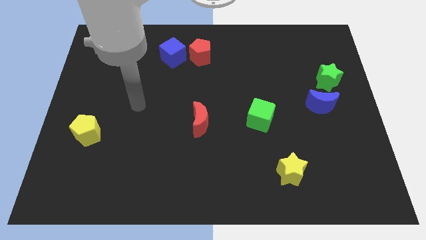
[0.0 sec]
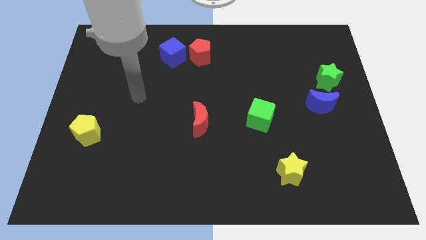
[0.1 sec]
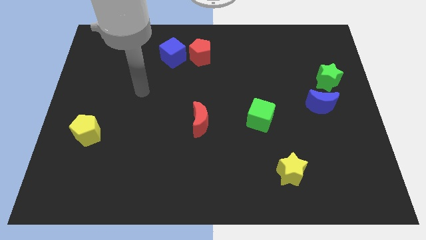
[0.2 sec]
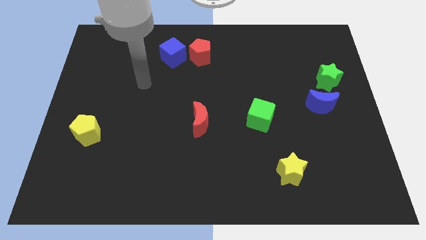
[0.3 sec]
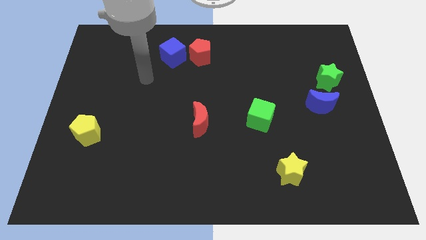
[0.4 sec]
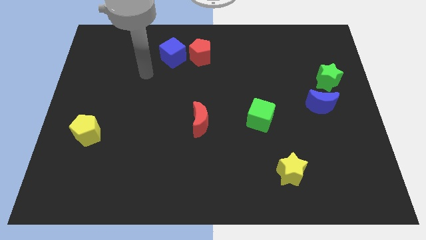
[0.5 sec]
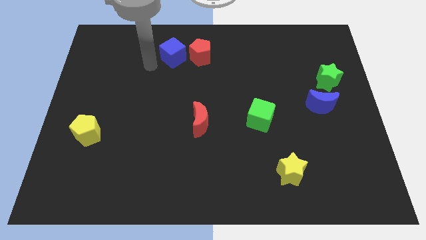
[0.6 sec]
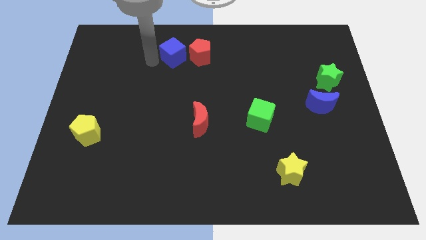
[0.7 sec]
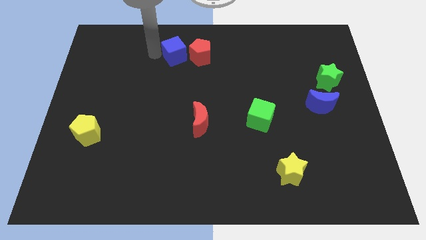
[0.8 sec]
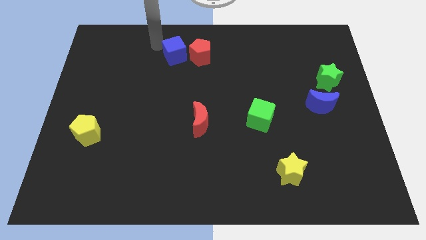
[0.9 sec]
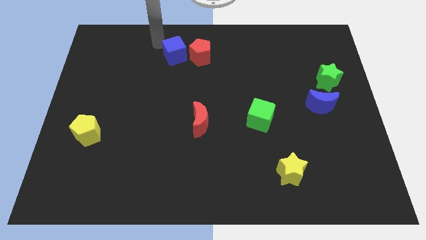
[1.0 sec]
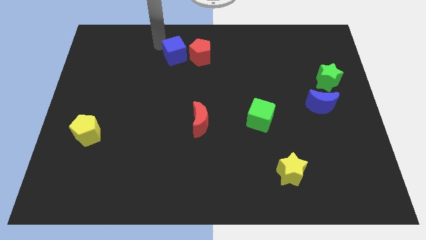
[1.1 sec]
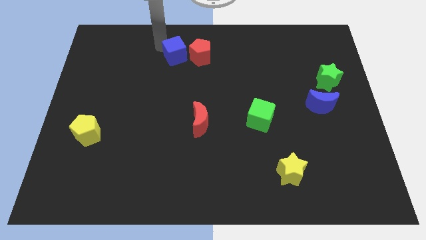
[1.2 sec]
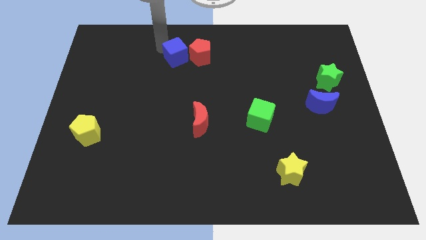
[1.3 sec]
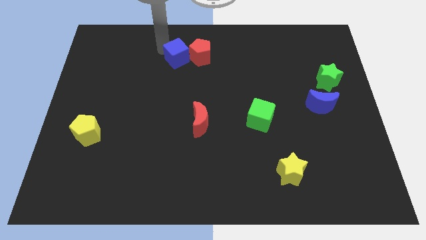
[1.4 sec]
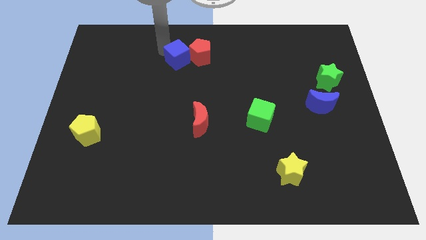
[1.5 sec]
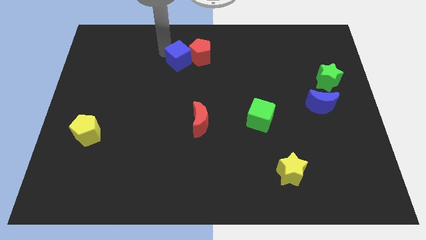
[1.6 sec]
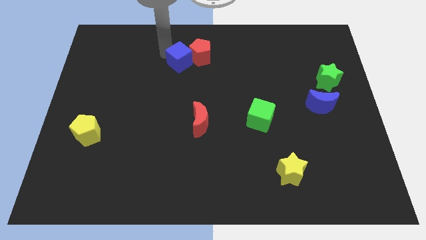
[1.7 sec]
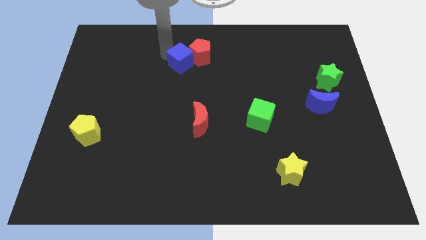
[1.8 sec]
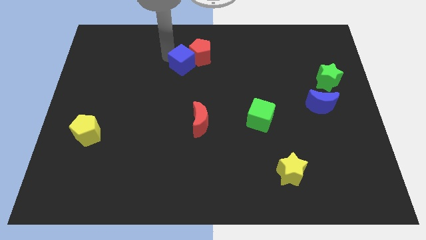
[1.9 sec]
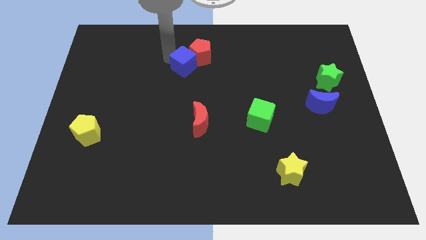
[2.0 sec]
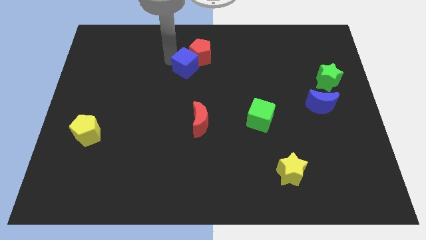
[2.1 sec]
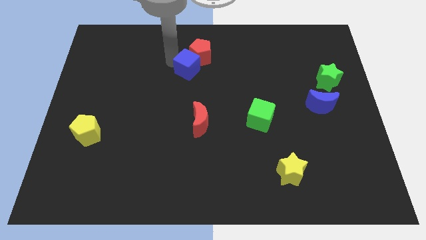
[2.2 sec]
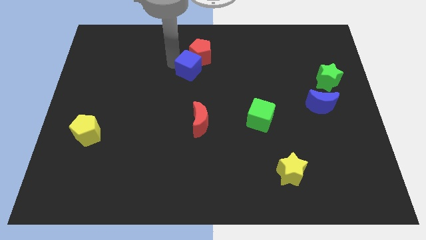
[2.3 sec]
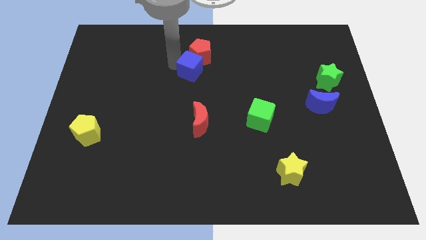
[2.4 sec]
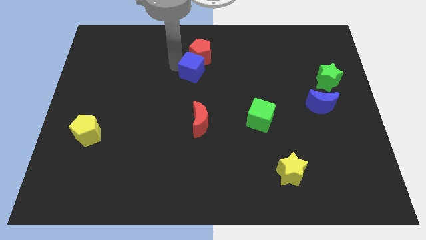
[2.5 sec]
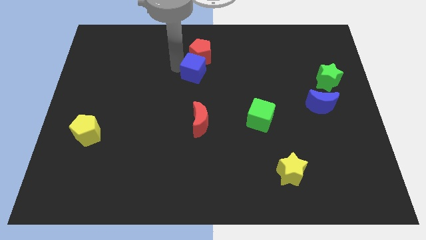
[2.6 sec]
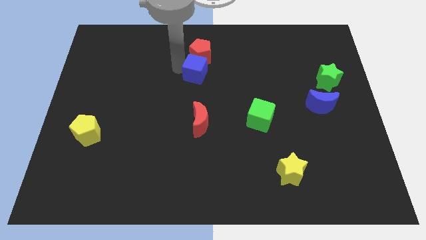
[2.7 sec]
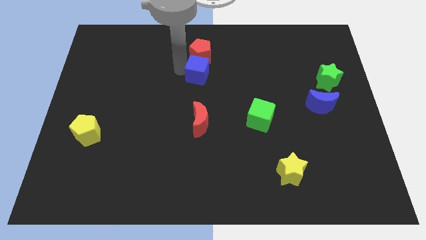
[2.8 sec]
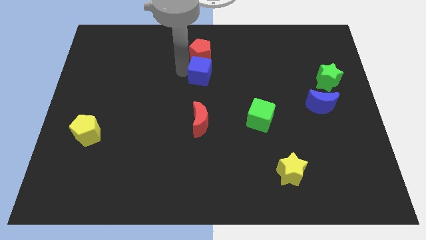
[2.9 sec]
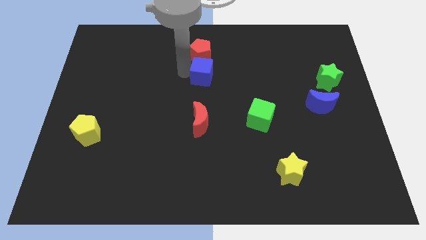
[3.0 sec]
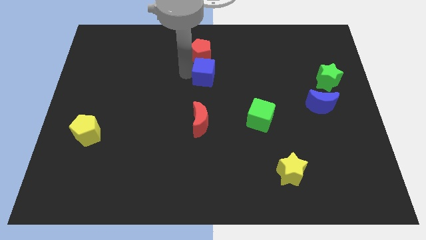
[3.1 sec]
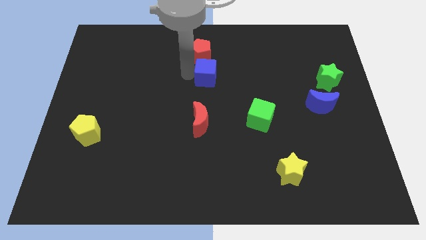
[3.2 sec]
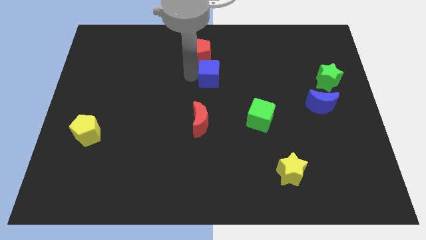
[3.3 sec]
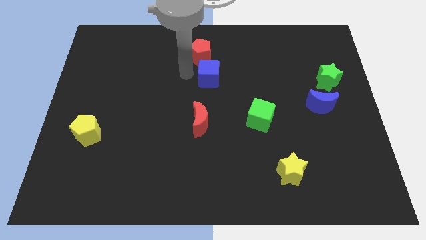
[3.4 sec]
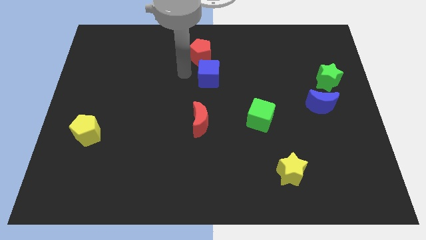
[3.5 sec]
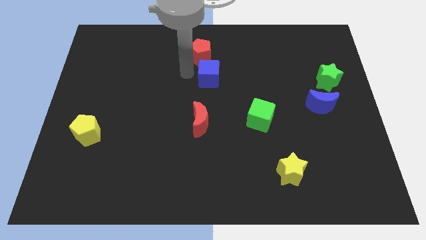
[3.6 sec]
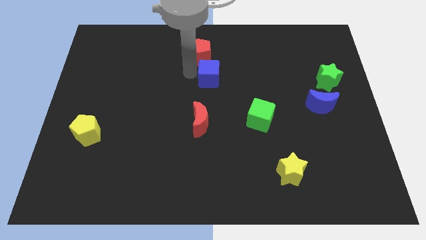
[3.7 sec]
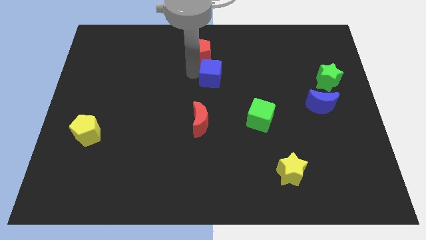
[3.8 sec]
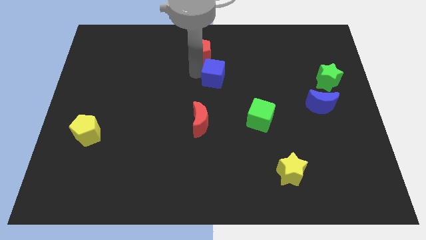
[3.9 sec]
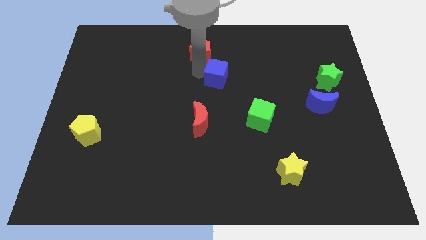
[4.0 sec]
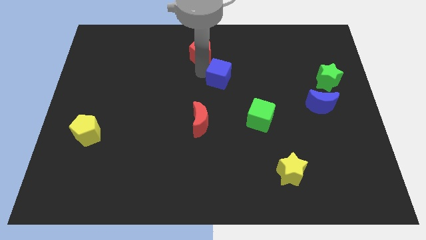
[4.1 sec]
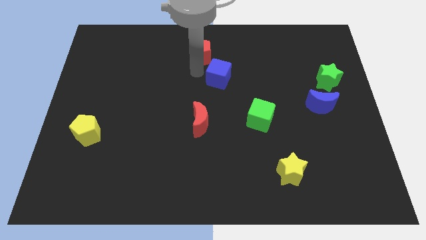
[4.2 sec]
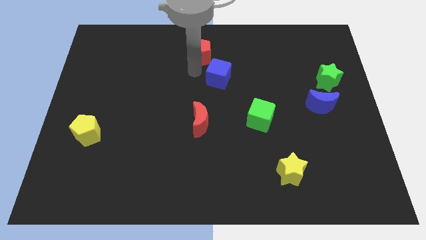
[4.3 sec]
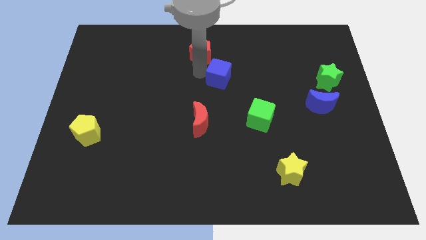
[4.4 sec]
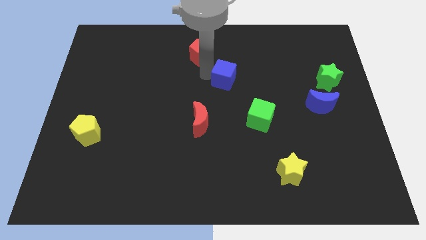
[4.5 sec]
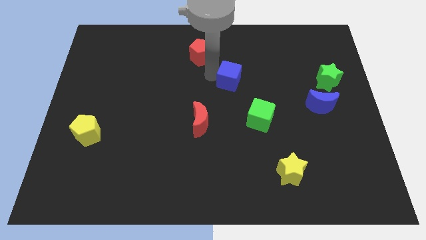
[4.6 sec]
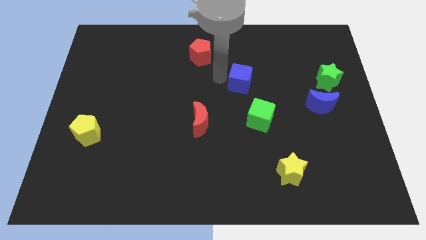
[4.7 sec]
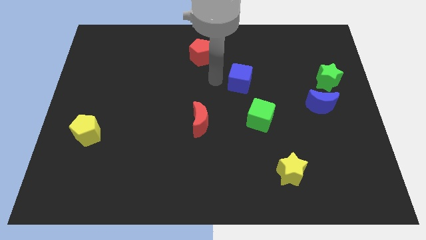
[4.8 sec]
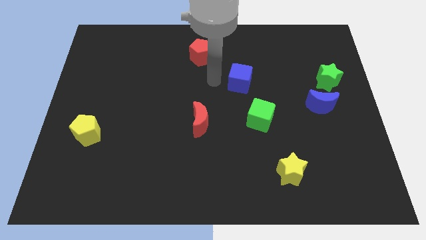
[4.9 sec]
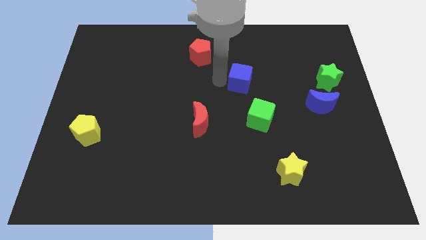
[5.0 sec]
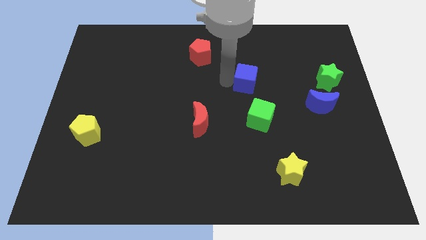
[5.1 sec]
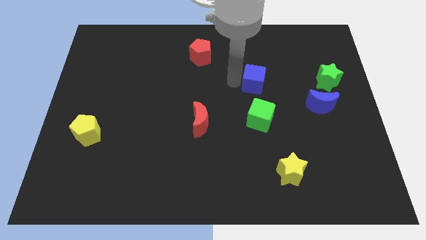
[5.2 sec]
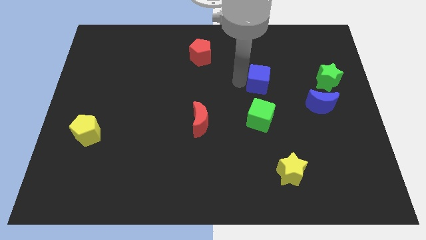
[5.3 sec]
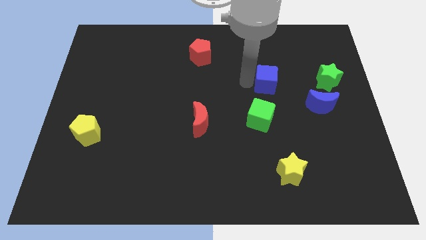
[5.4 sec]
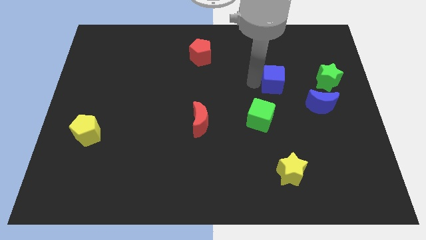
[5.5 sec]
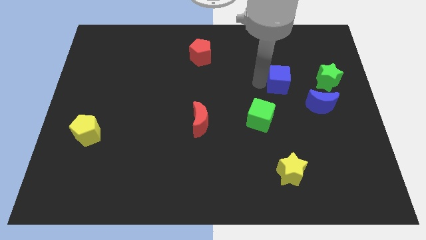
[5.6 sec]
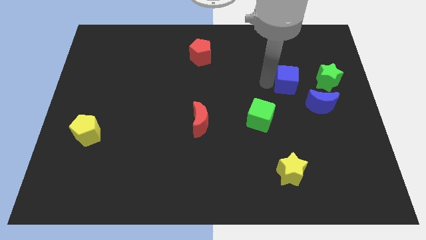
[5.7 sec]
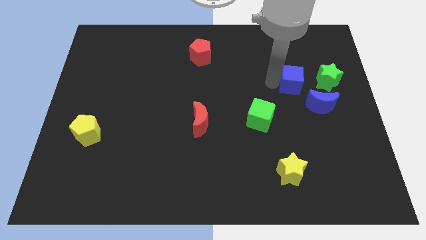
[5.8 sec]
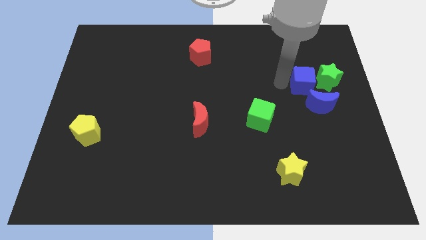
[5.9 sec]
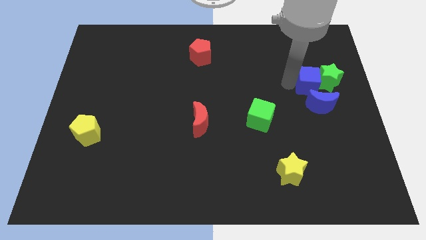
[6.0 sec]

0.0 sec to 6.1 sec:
slide the blue cube close to the green star

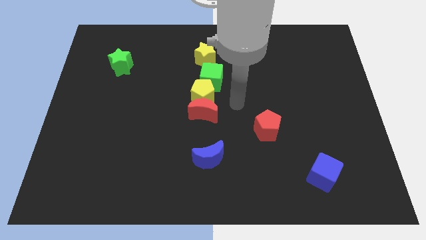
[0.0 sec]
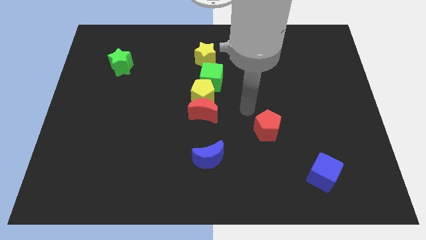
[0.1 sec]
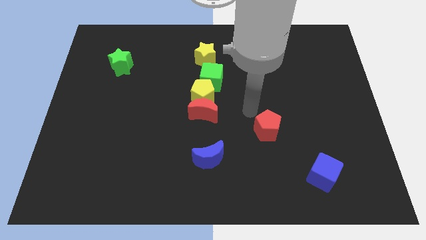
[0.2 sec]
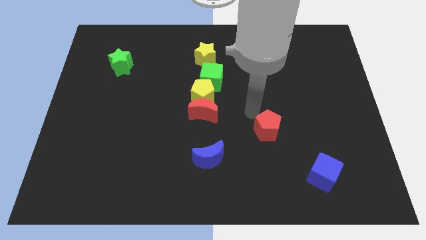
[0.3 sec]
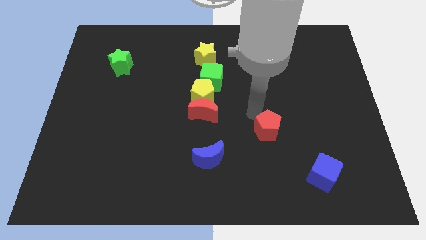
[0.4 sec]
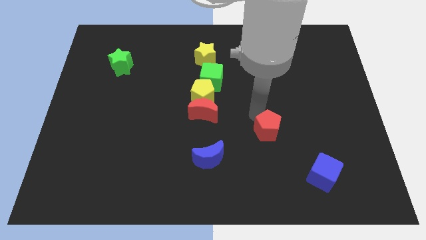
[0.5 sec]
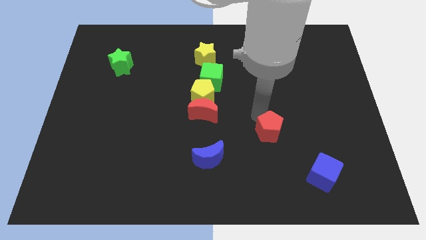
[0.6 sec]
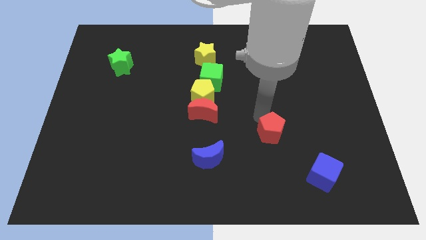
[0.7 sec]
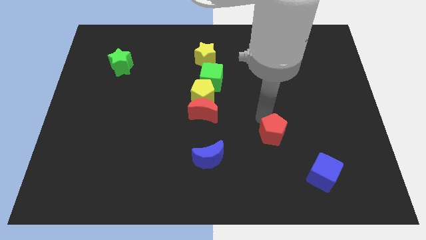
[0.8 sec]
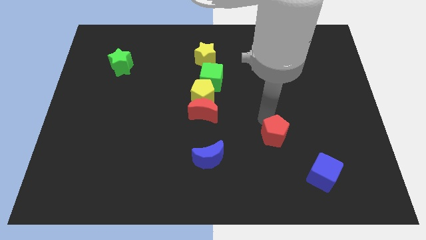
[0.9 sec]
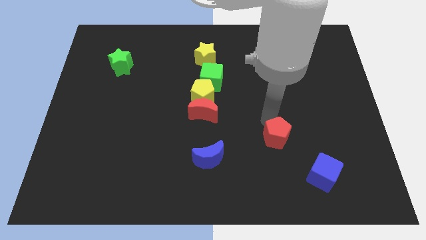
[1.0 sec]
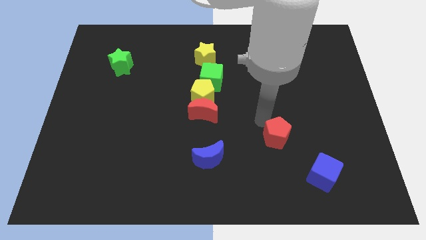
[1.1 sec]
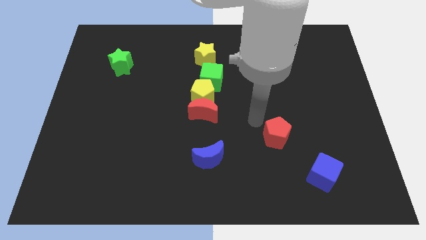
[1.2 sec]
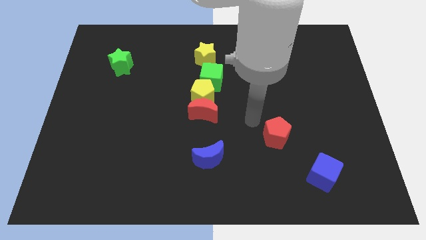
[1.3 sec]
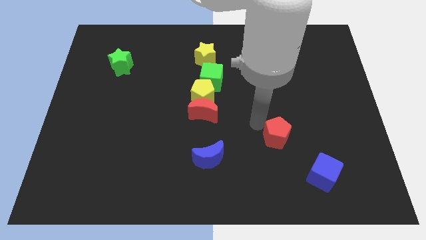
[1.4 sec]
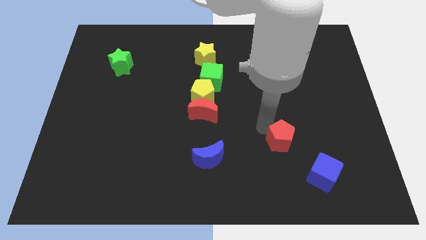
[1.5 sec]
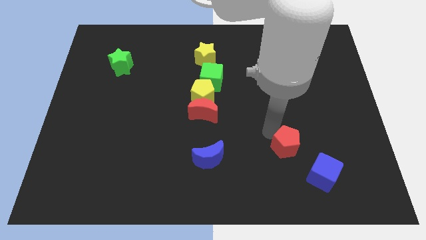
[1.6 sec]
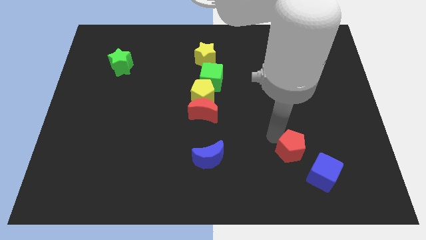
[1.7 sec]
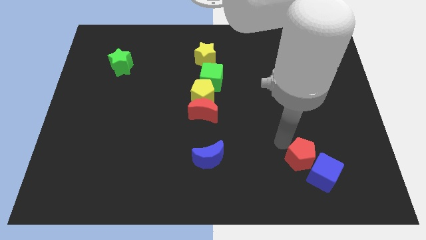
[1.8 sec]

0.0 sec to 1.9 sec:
put the red pentagon towards the blue cube
